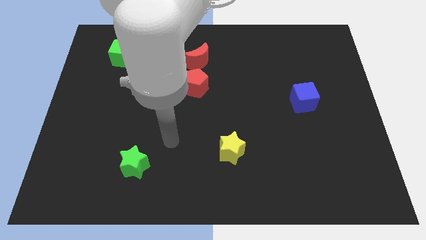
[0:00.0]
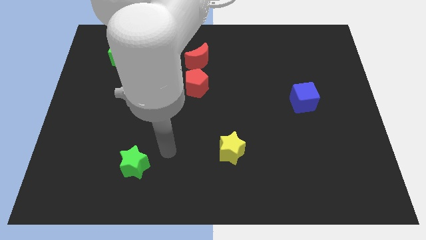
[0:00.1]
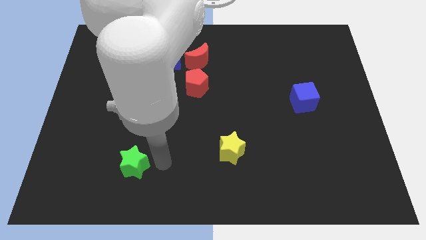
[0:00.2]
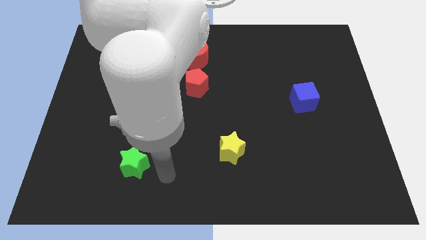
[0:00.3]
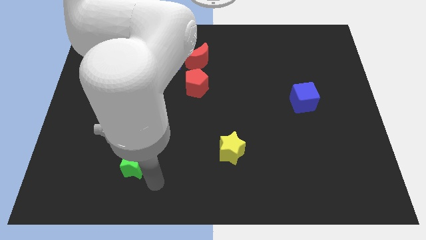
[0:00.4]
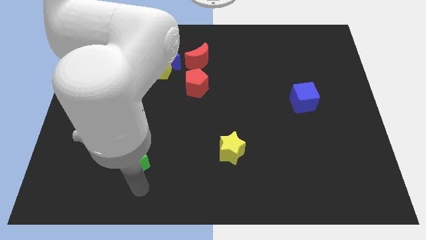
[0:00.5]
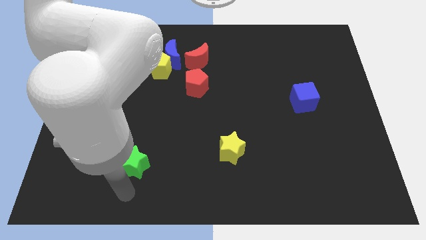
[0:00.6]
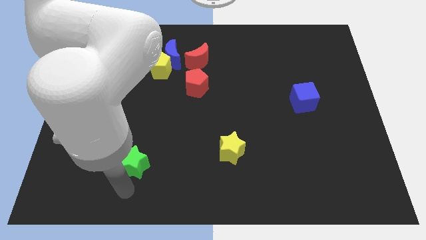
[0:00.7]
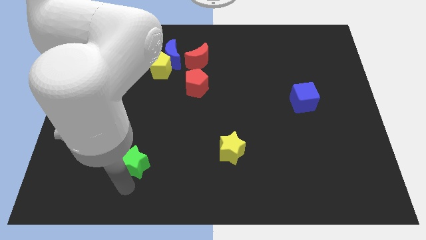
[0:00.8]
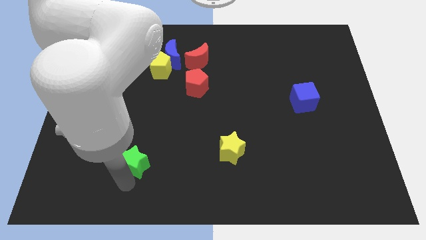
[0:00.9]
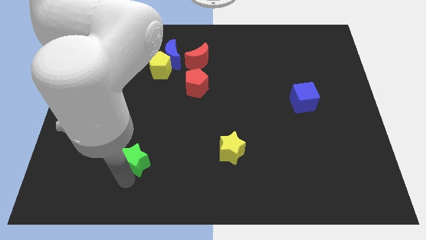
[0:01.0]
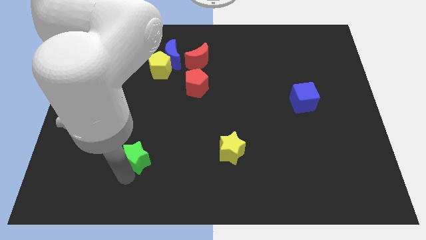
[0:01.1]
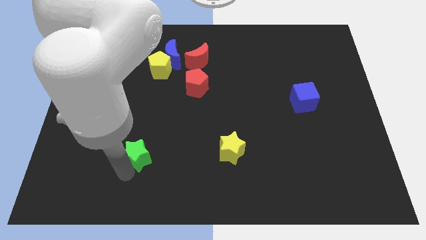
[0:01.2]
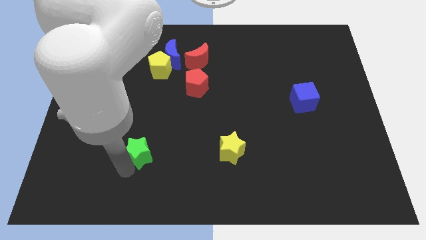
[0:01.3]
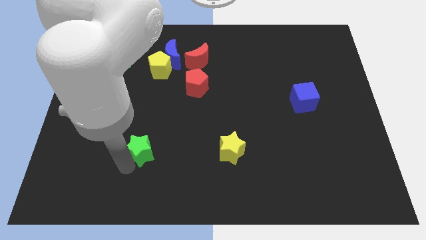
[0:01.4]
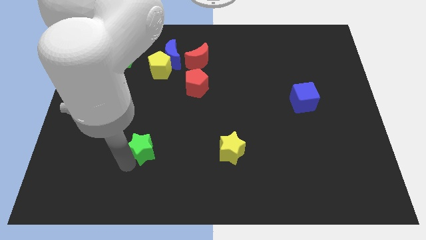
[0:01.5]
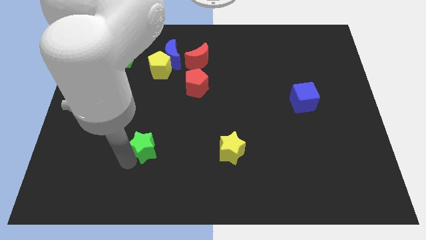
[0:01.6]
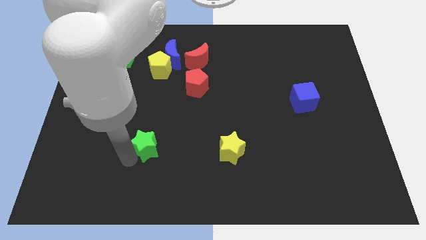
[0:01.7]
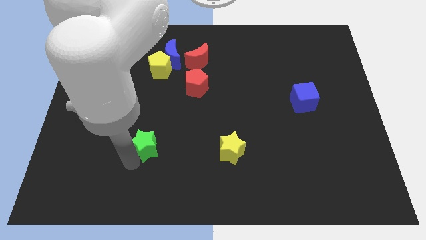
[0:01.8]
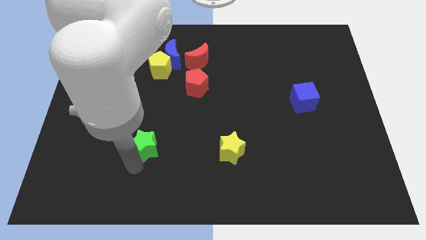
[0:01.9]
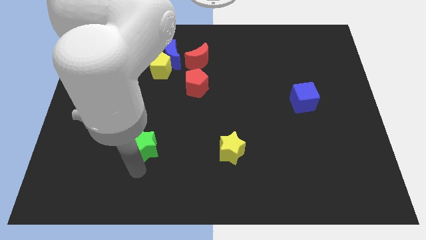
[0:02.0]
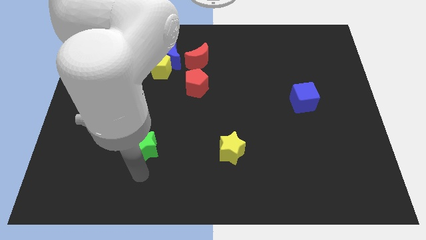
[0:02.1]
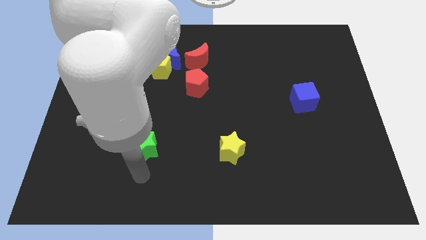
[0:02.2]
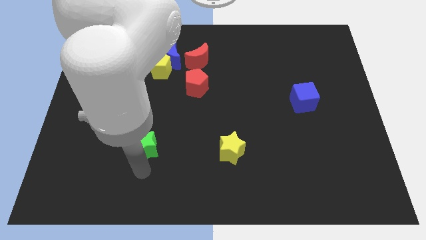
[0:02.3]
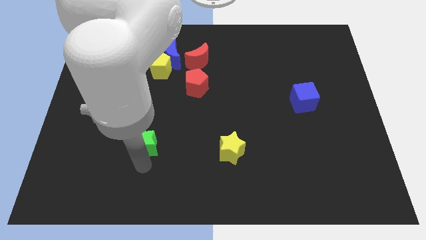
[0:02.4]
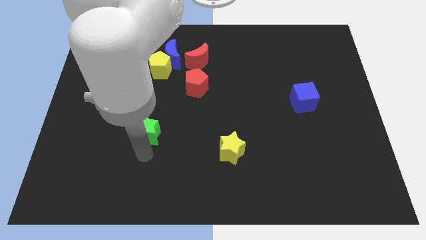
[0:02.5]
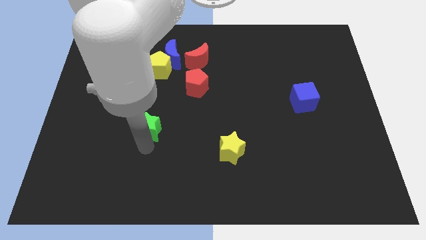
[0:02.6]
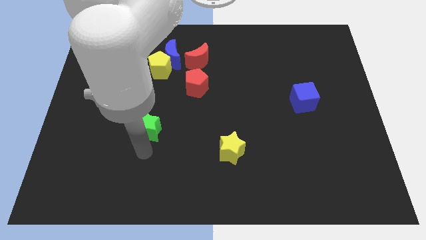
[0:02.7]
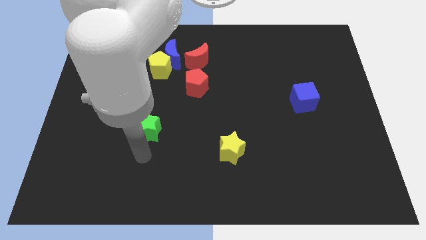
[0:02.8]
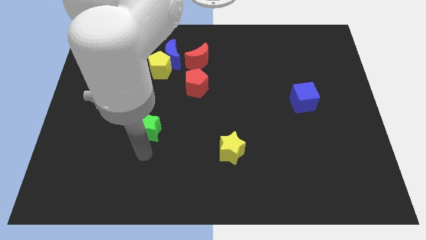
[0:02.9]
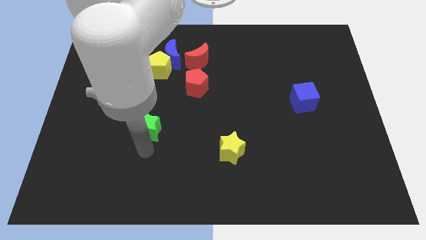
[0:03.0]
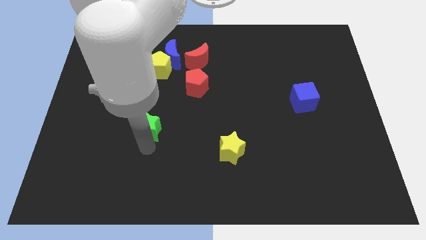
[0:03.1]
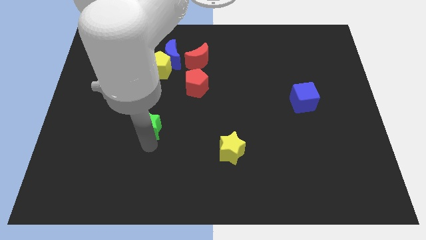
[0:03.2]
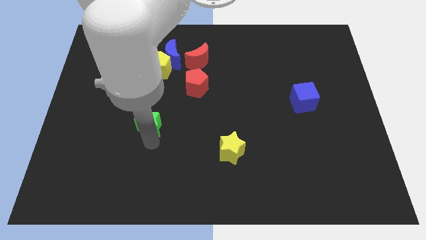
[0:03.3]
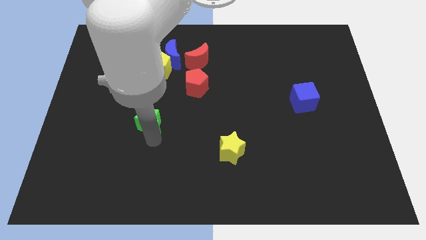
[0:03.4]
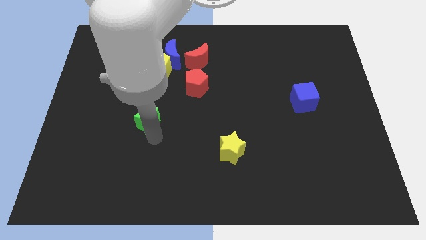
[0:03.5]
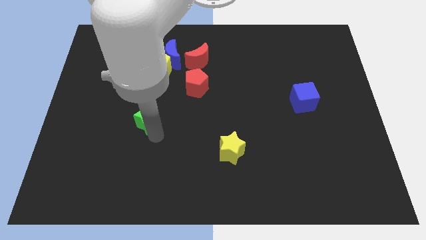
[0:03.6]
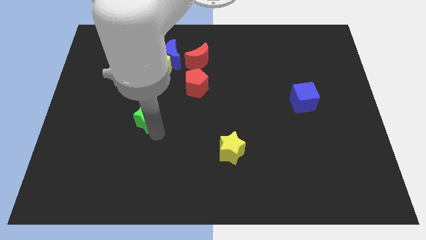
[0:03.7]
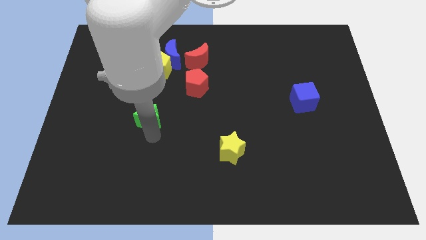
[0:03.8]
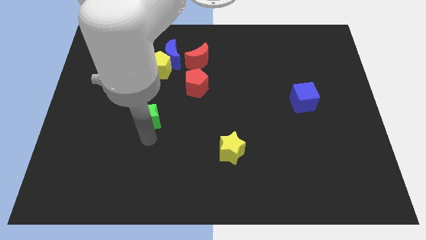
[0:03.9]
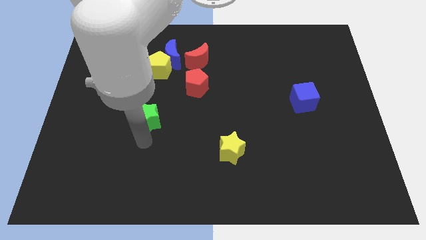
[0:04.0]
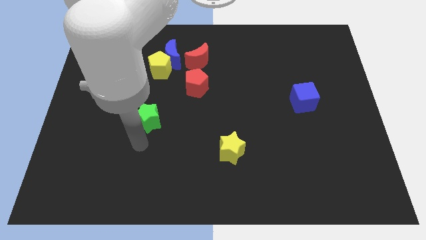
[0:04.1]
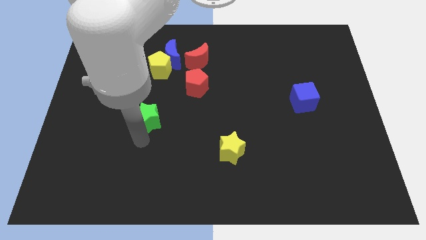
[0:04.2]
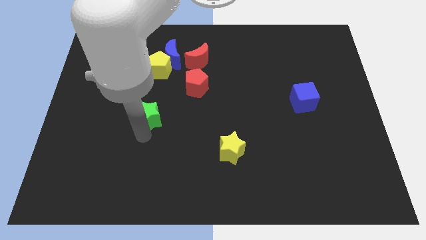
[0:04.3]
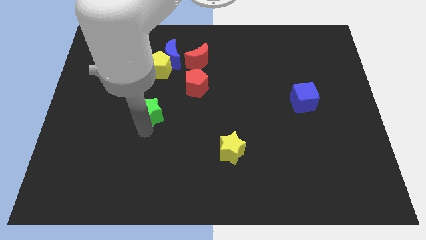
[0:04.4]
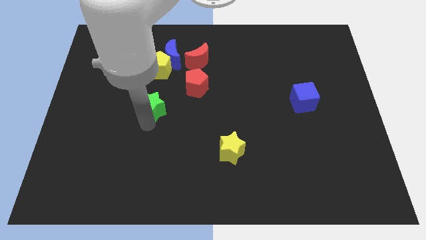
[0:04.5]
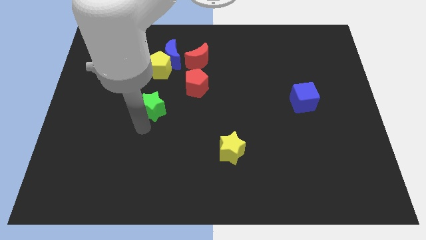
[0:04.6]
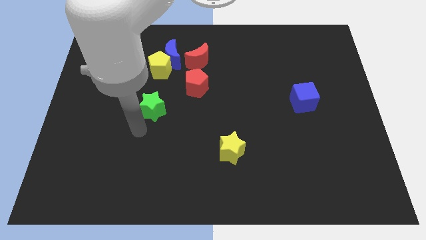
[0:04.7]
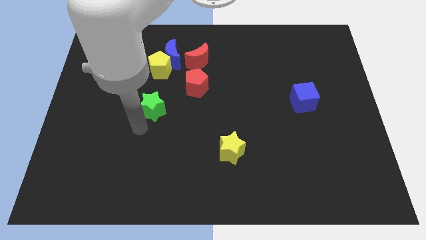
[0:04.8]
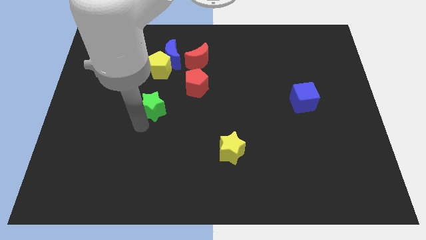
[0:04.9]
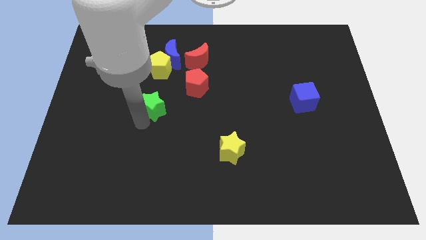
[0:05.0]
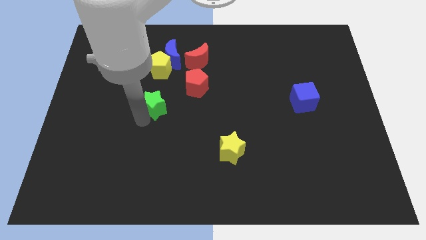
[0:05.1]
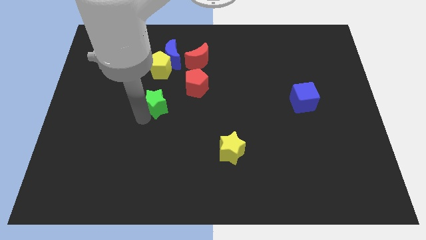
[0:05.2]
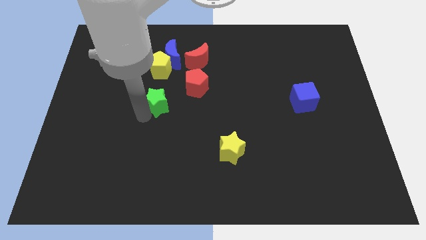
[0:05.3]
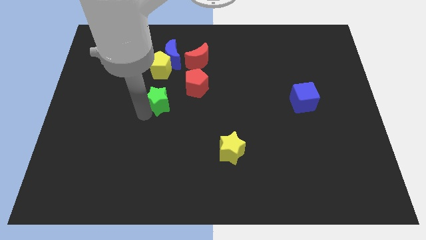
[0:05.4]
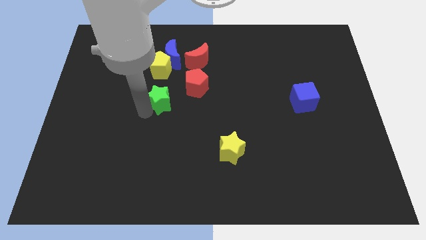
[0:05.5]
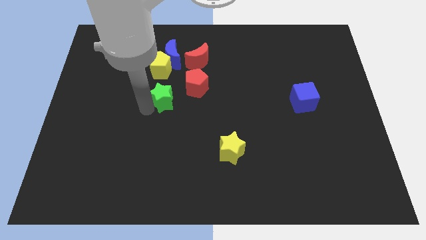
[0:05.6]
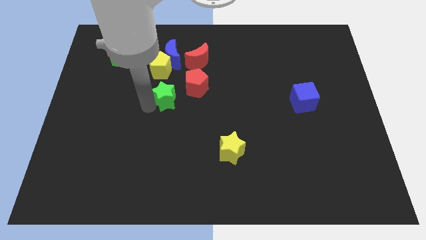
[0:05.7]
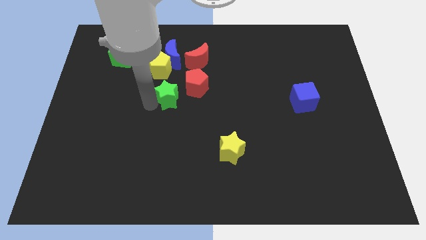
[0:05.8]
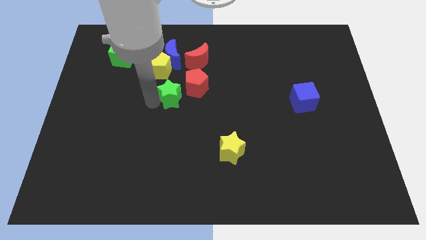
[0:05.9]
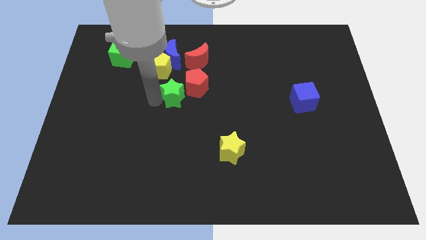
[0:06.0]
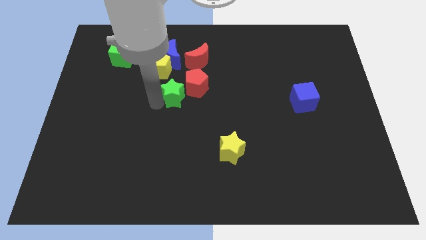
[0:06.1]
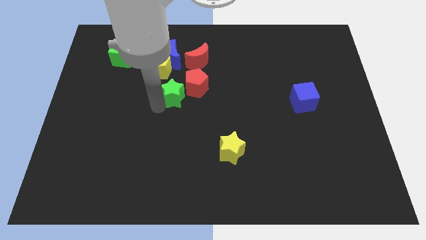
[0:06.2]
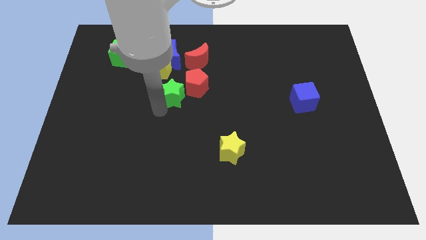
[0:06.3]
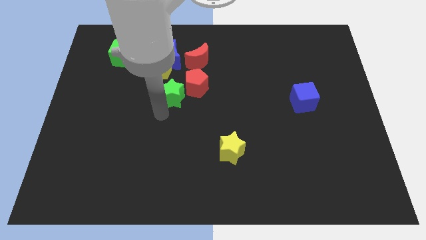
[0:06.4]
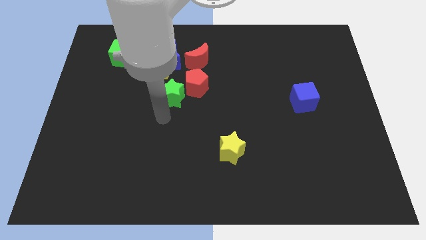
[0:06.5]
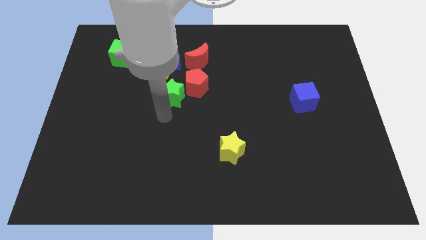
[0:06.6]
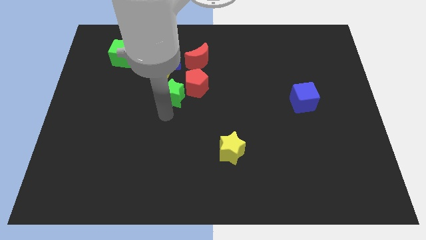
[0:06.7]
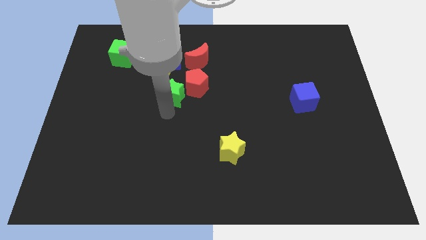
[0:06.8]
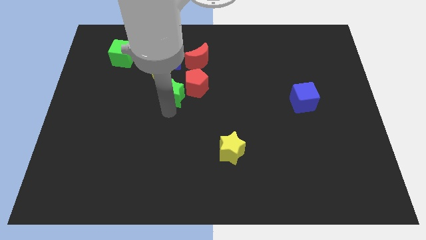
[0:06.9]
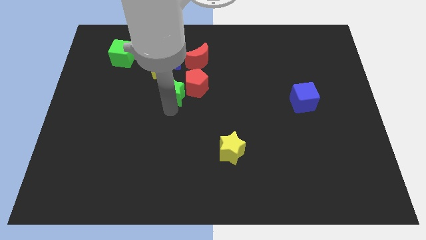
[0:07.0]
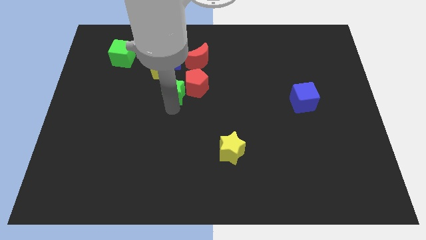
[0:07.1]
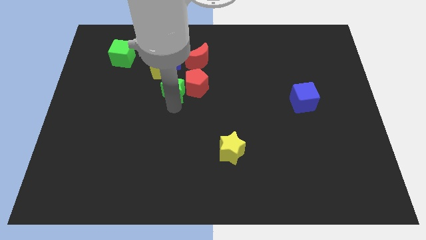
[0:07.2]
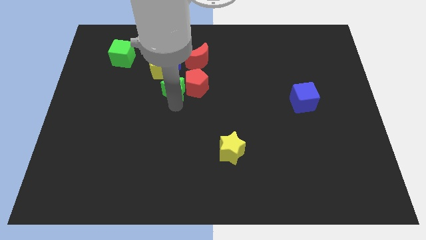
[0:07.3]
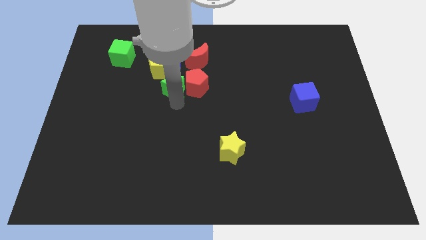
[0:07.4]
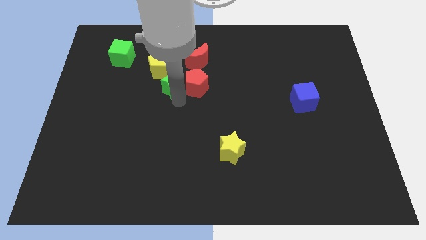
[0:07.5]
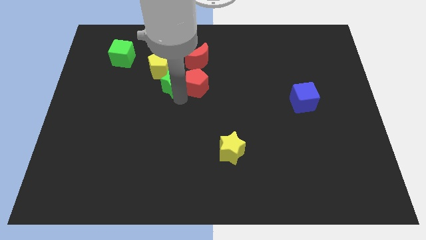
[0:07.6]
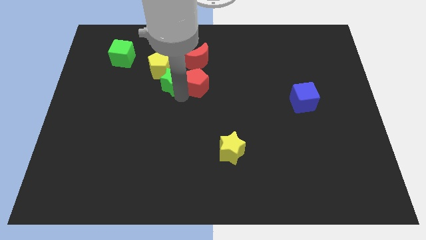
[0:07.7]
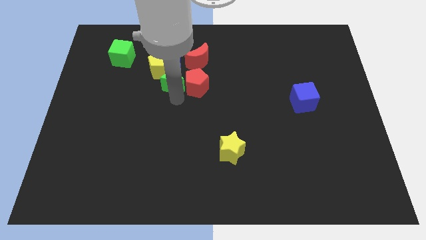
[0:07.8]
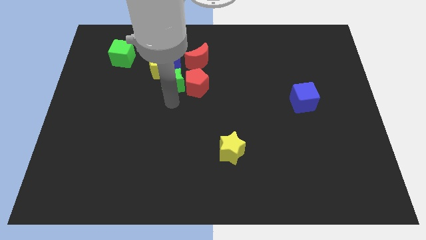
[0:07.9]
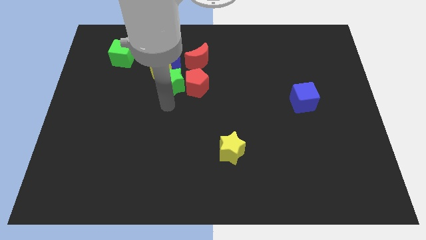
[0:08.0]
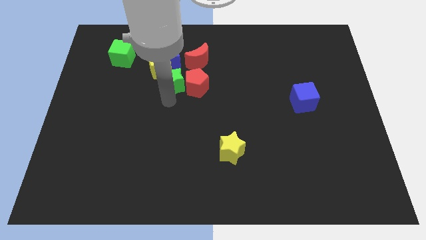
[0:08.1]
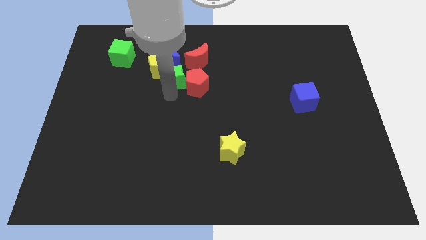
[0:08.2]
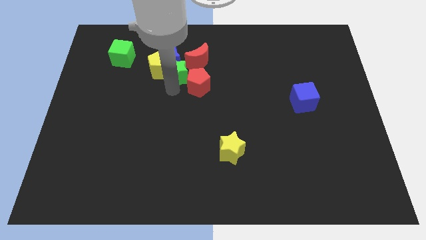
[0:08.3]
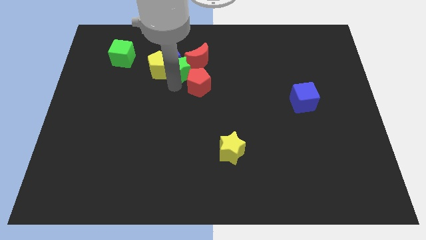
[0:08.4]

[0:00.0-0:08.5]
slide the green star towards the blue moon
